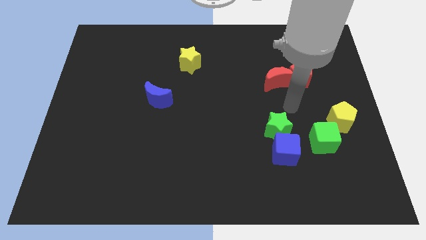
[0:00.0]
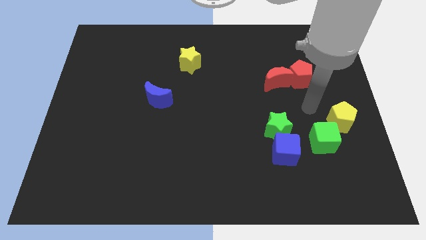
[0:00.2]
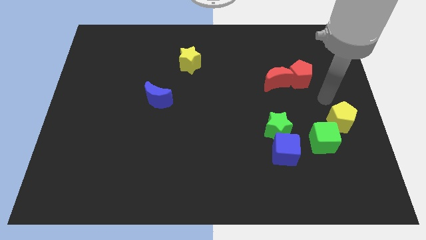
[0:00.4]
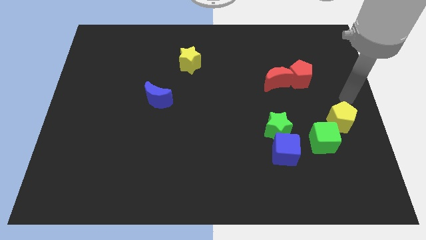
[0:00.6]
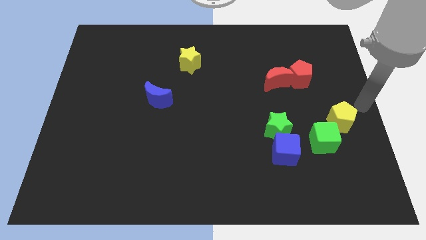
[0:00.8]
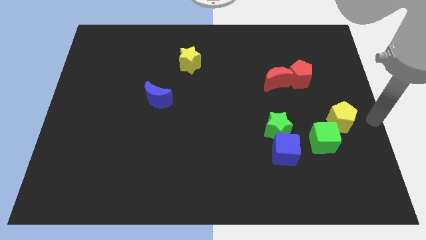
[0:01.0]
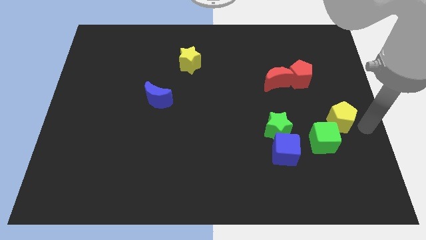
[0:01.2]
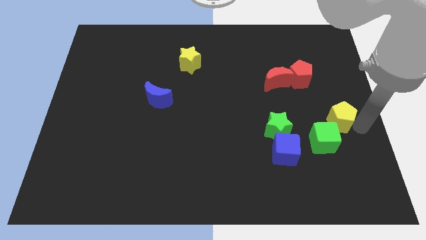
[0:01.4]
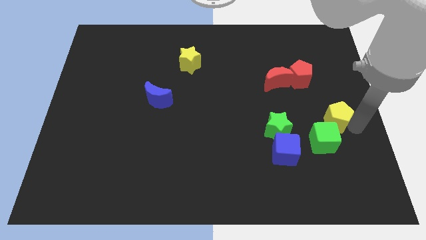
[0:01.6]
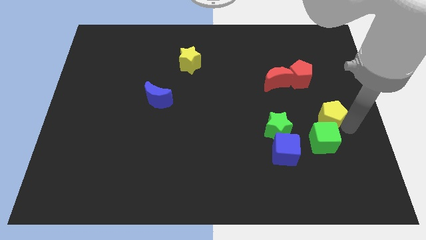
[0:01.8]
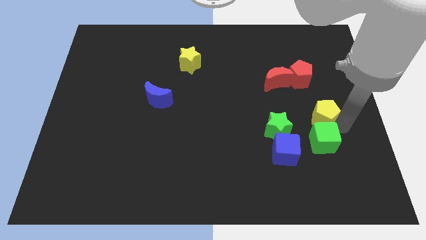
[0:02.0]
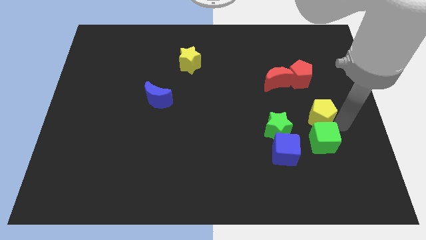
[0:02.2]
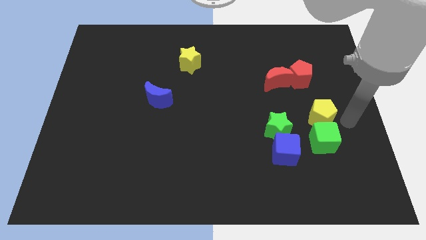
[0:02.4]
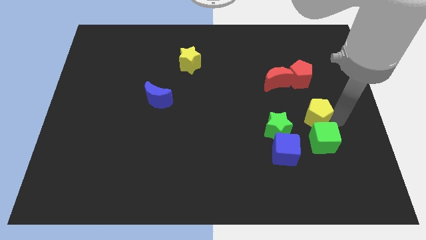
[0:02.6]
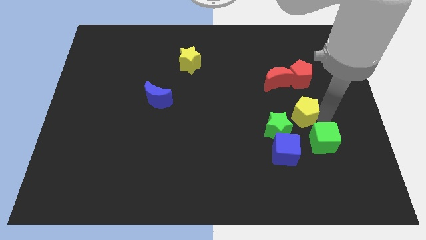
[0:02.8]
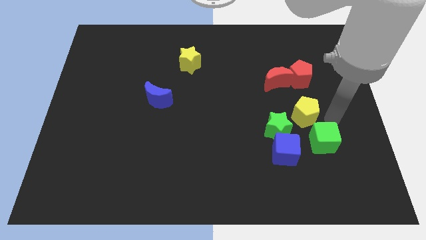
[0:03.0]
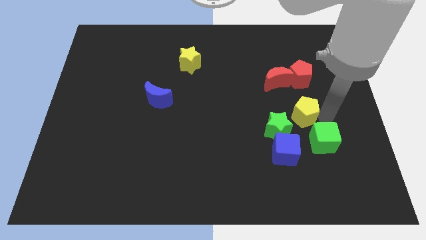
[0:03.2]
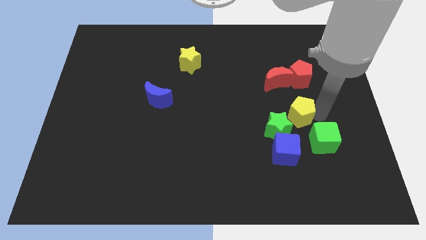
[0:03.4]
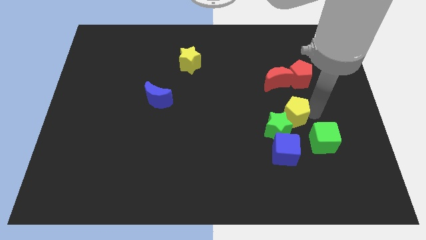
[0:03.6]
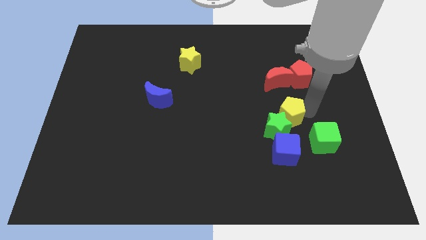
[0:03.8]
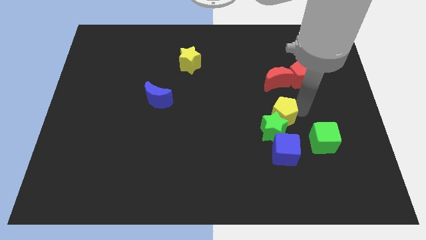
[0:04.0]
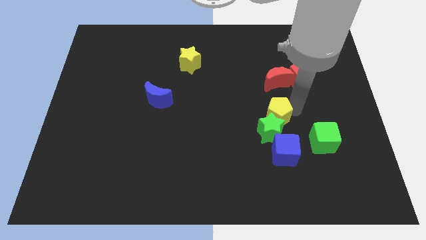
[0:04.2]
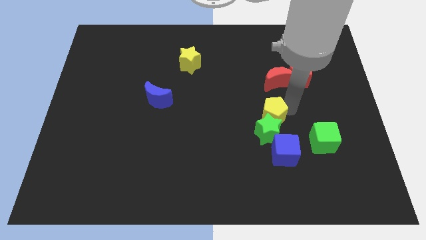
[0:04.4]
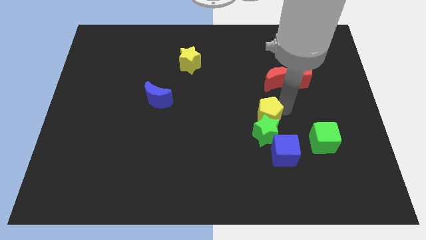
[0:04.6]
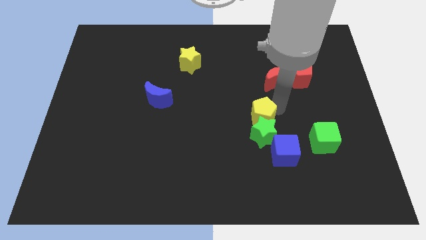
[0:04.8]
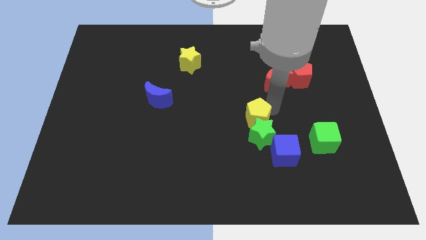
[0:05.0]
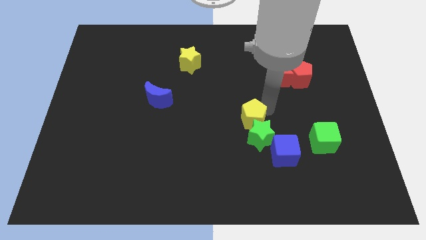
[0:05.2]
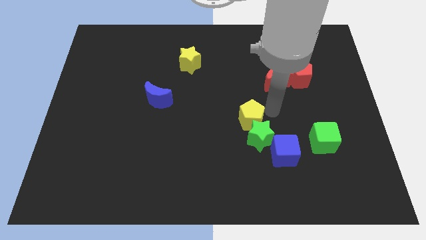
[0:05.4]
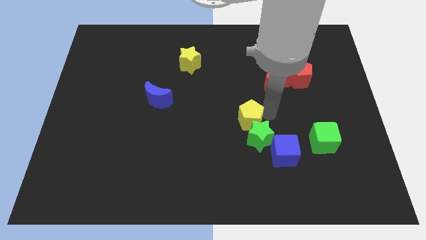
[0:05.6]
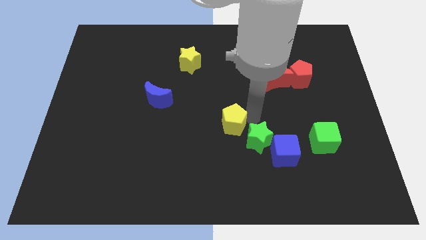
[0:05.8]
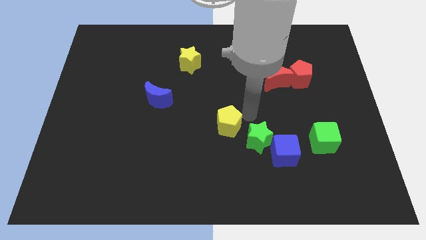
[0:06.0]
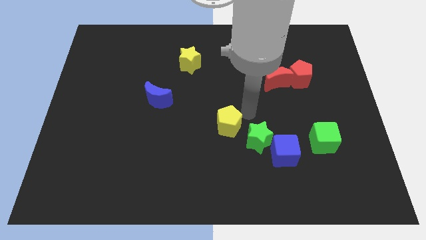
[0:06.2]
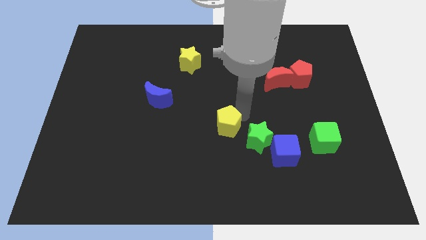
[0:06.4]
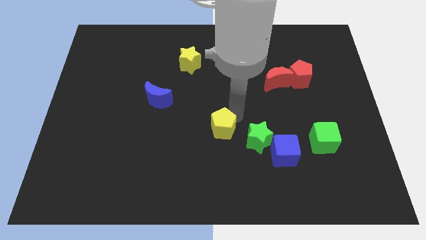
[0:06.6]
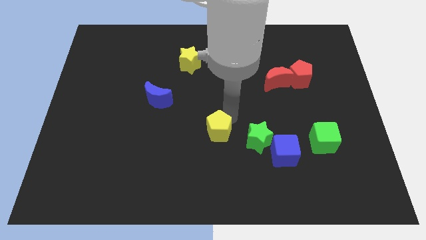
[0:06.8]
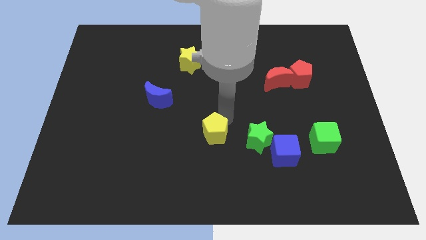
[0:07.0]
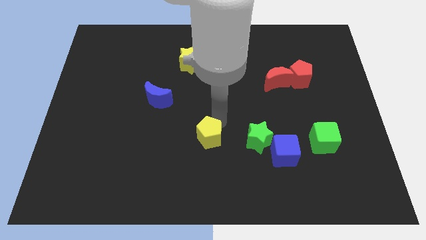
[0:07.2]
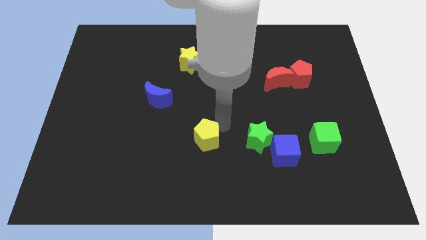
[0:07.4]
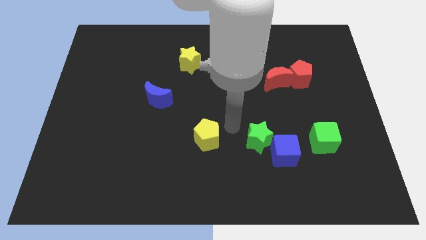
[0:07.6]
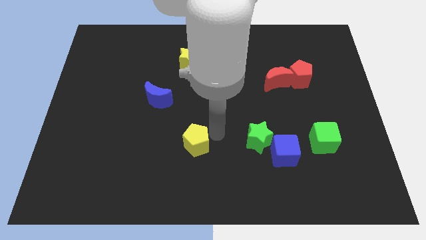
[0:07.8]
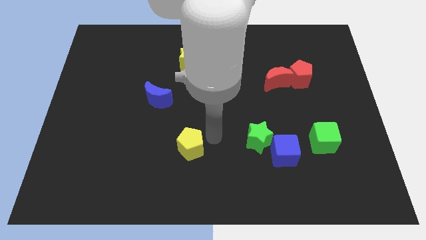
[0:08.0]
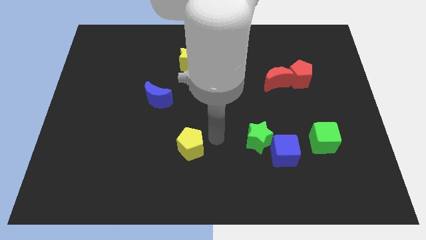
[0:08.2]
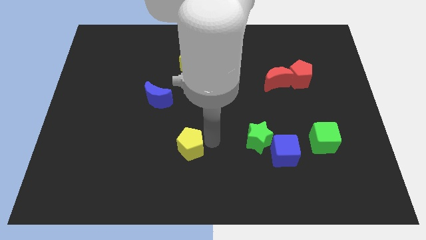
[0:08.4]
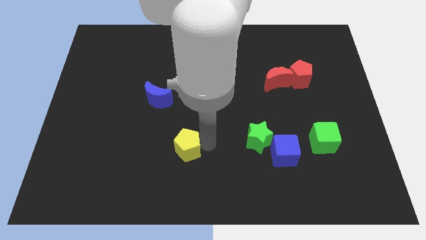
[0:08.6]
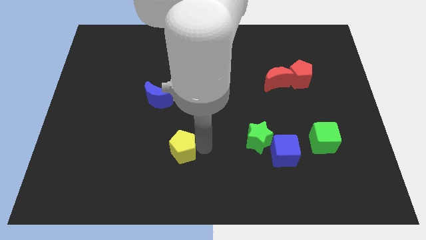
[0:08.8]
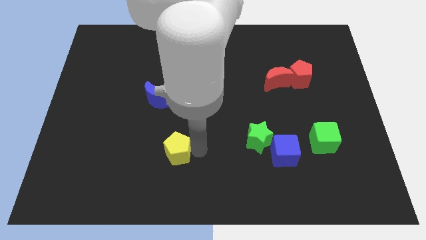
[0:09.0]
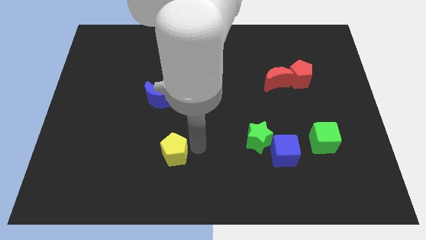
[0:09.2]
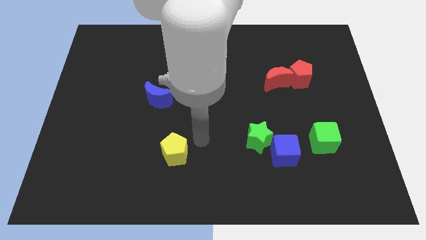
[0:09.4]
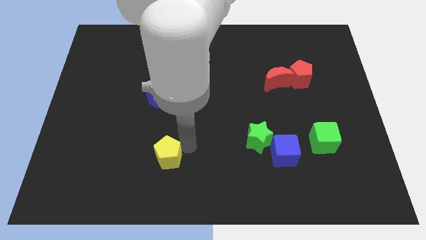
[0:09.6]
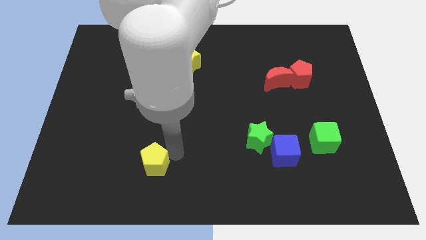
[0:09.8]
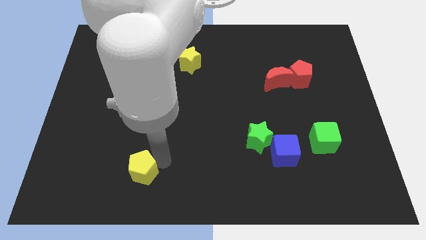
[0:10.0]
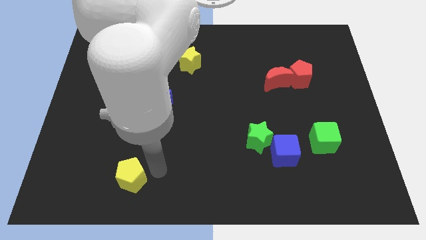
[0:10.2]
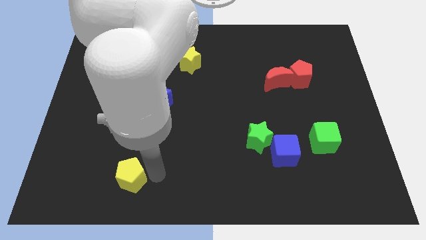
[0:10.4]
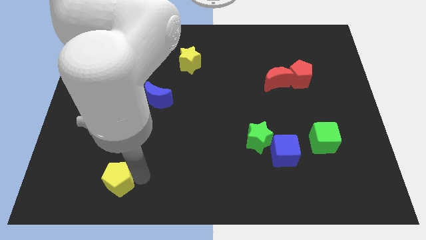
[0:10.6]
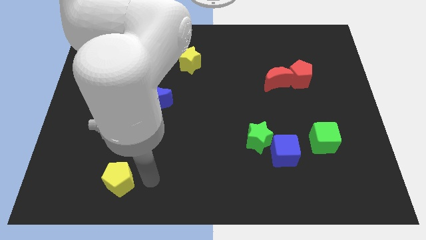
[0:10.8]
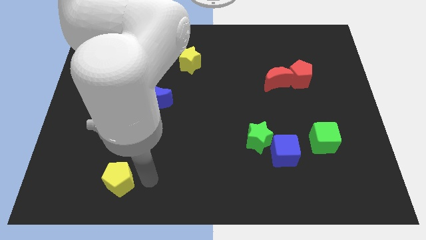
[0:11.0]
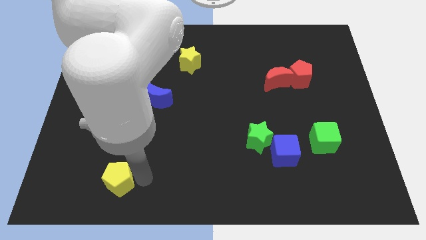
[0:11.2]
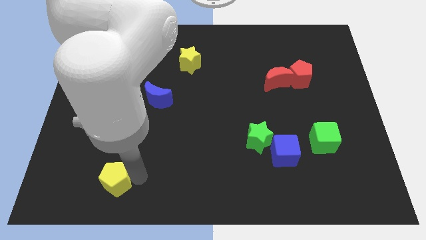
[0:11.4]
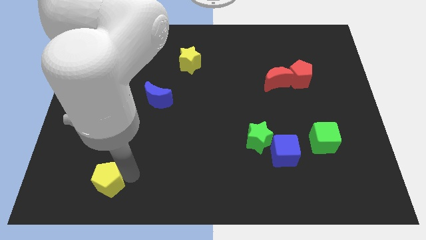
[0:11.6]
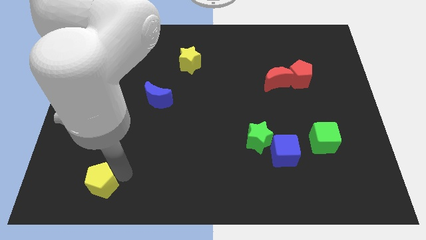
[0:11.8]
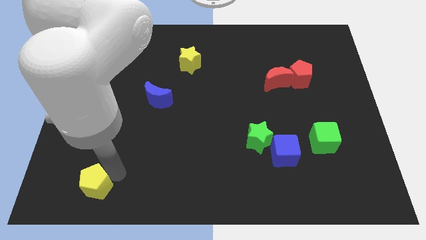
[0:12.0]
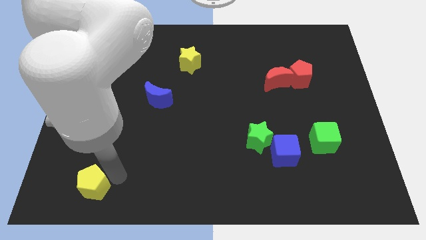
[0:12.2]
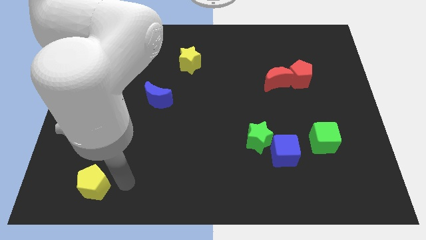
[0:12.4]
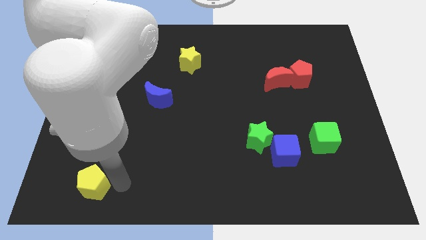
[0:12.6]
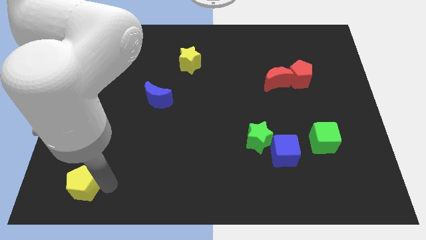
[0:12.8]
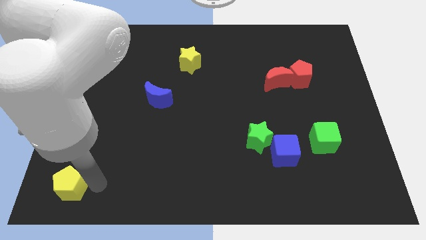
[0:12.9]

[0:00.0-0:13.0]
push the yellow pentagon to the lower left corner
